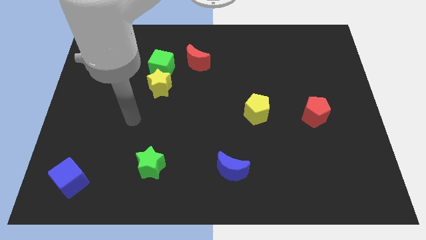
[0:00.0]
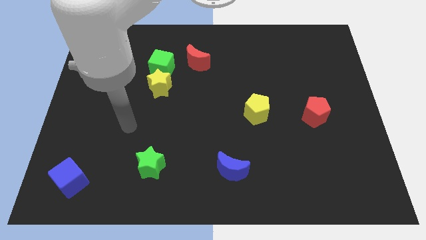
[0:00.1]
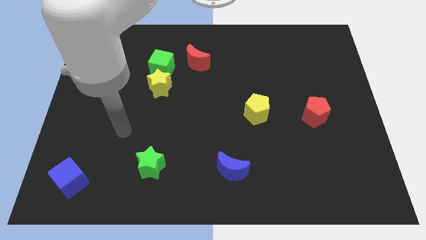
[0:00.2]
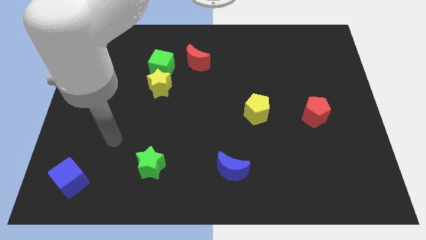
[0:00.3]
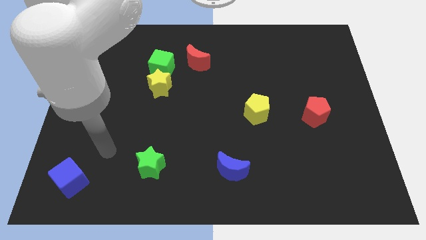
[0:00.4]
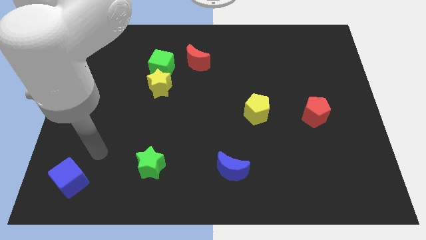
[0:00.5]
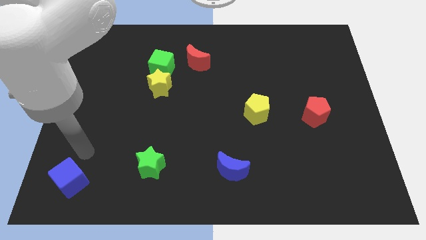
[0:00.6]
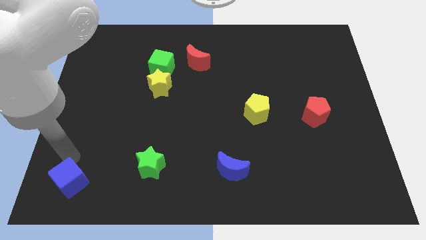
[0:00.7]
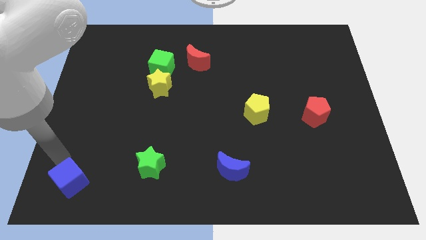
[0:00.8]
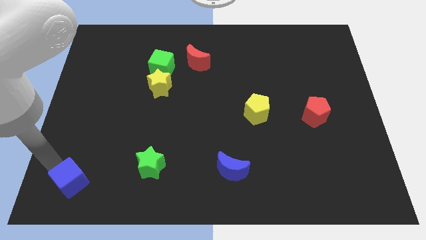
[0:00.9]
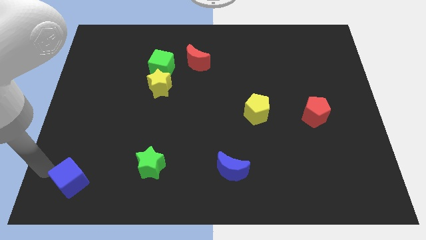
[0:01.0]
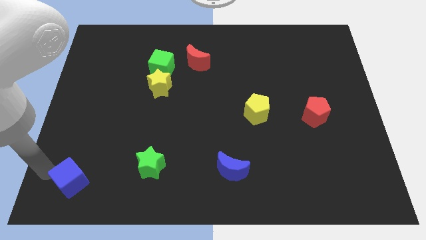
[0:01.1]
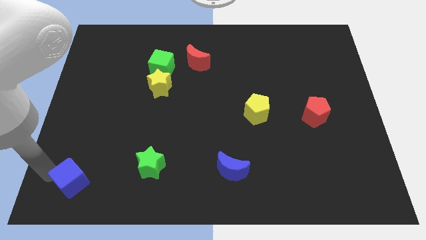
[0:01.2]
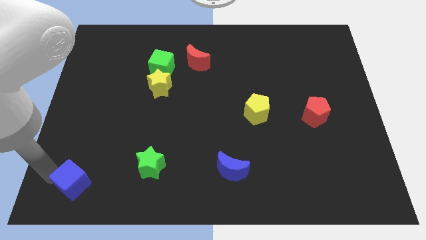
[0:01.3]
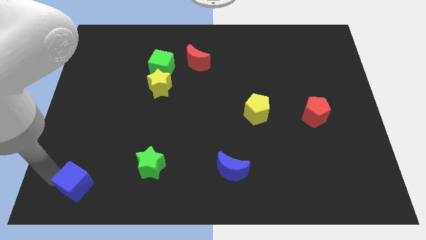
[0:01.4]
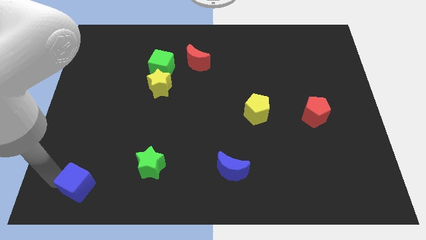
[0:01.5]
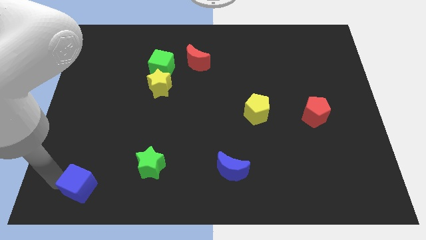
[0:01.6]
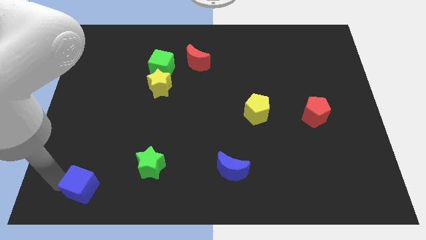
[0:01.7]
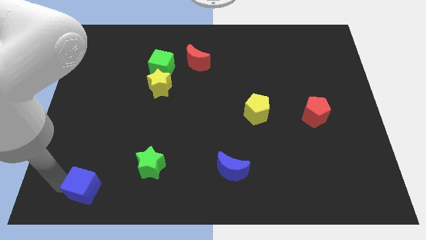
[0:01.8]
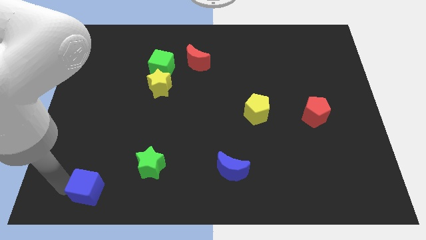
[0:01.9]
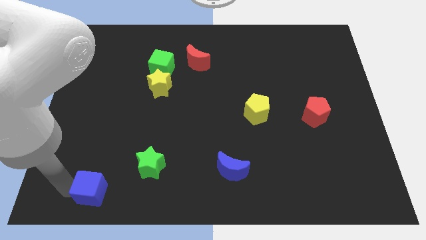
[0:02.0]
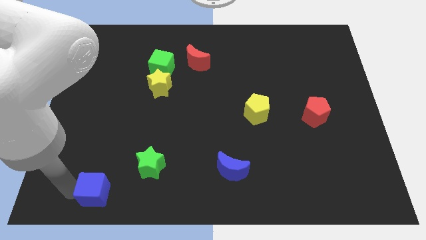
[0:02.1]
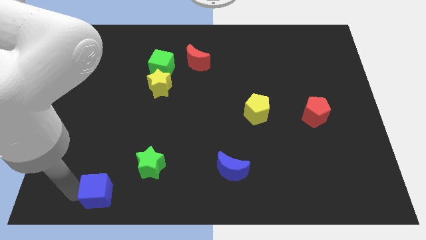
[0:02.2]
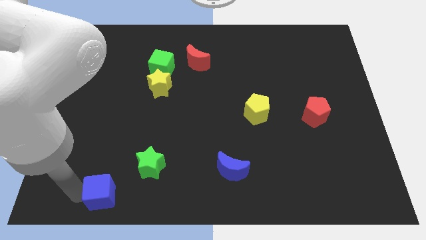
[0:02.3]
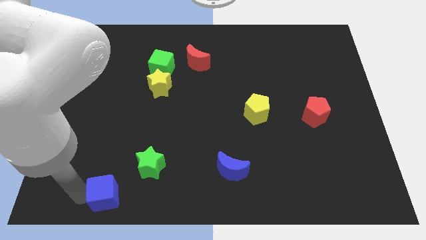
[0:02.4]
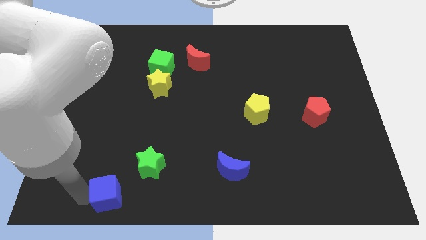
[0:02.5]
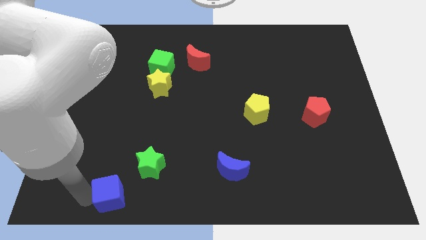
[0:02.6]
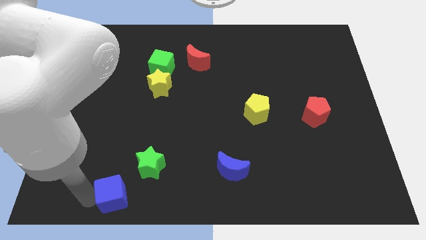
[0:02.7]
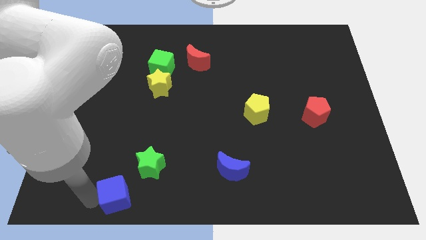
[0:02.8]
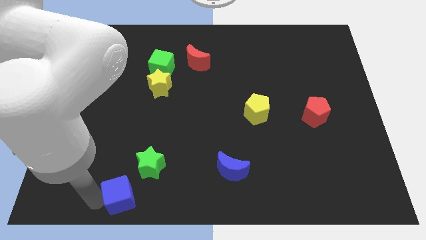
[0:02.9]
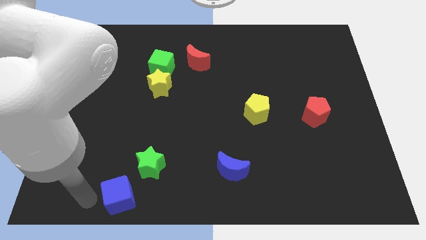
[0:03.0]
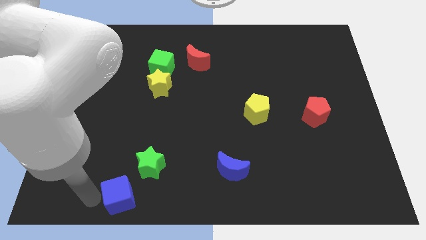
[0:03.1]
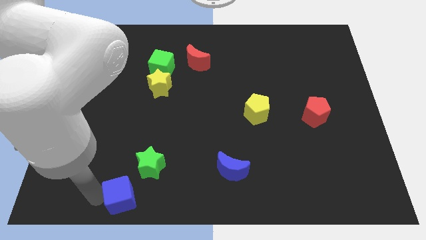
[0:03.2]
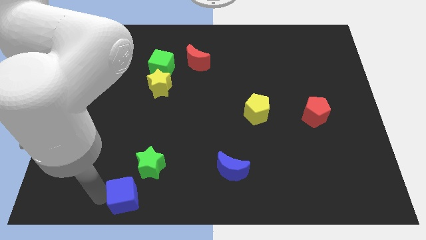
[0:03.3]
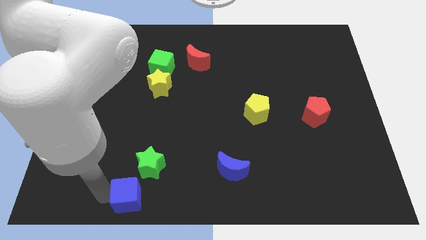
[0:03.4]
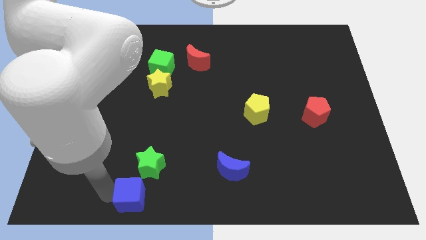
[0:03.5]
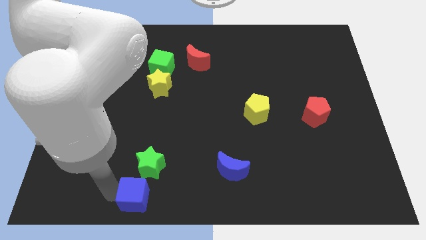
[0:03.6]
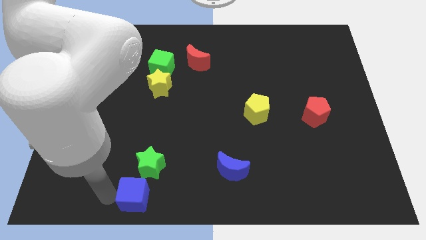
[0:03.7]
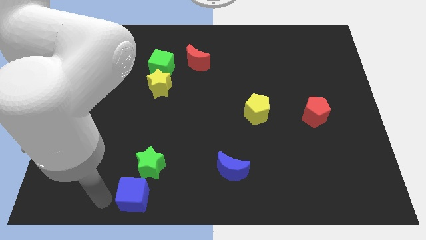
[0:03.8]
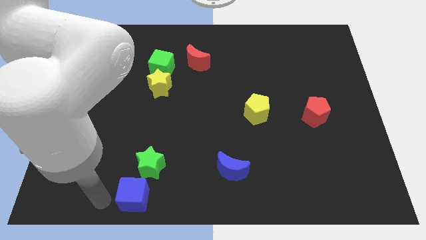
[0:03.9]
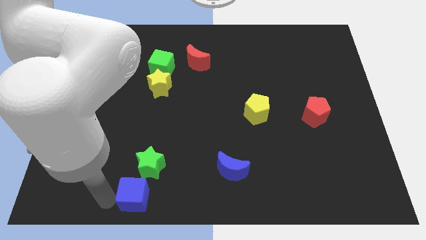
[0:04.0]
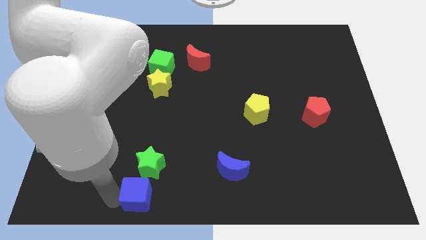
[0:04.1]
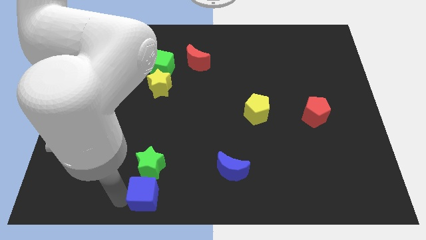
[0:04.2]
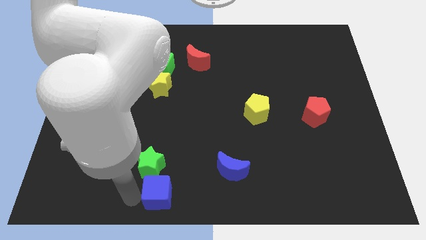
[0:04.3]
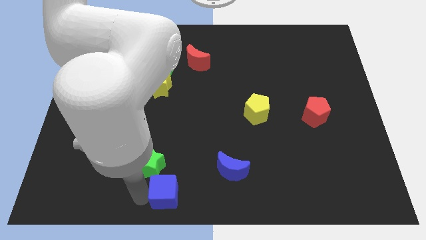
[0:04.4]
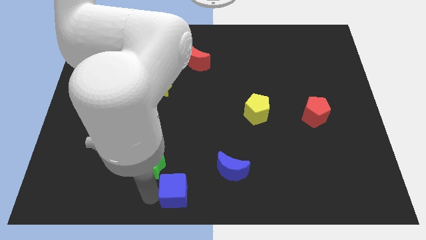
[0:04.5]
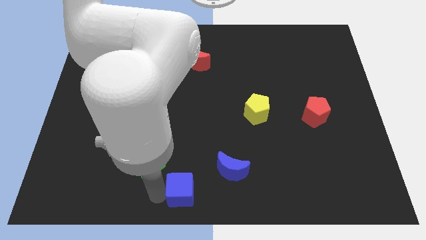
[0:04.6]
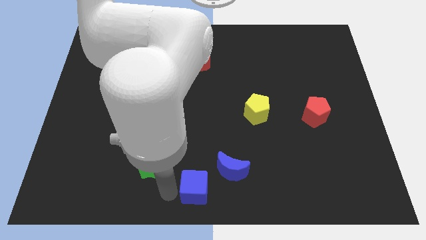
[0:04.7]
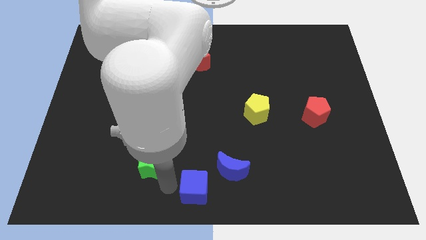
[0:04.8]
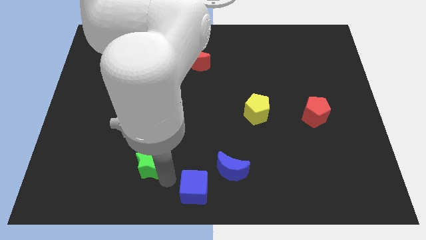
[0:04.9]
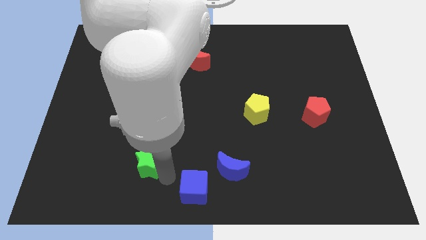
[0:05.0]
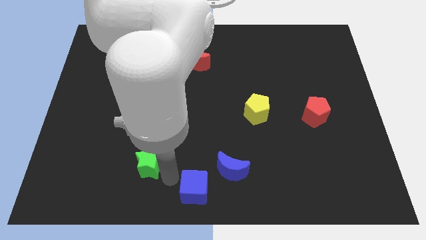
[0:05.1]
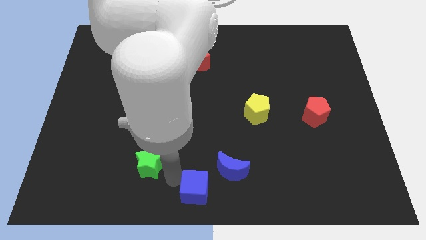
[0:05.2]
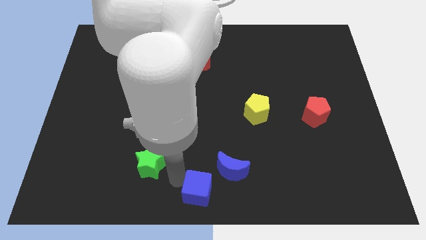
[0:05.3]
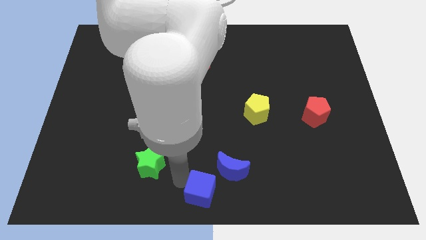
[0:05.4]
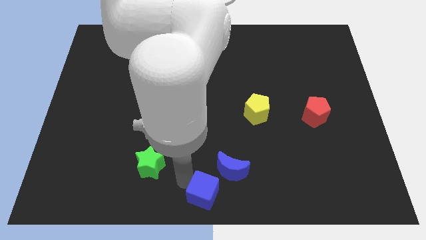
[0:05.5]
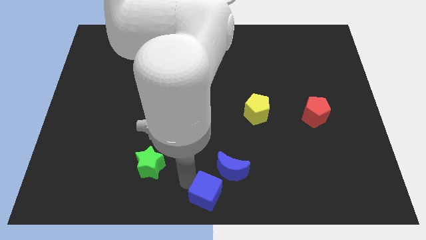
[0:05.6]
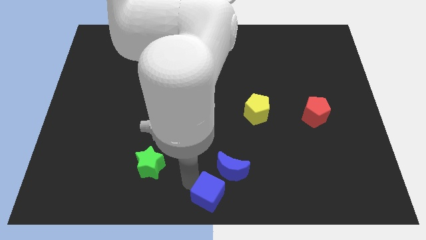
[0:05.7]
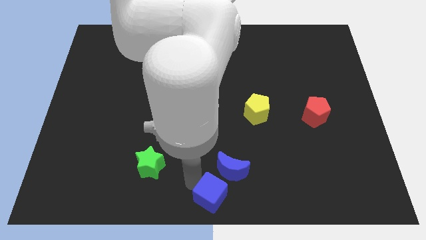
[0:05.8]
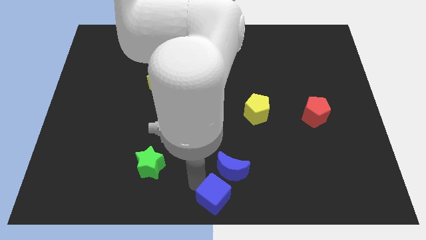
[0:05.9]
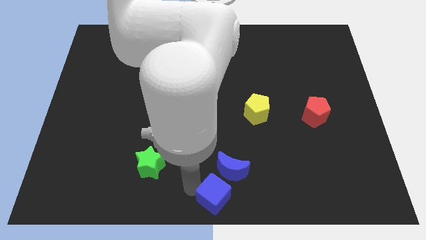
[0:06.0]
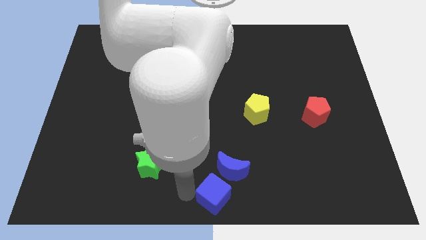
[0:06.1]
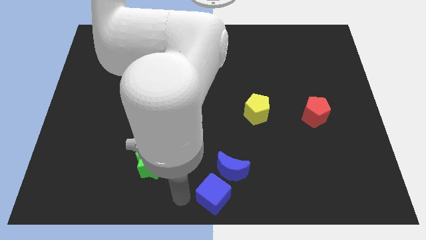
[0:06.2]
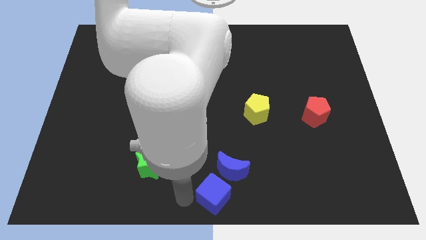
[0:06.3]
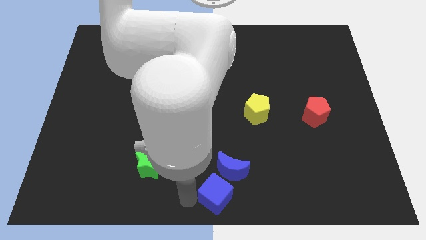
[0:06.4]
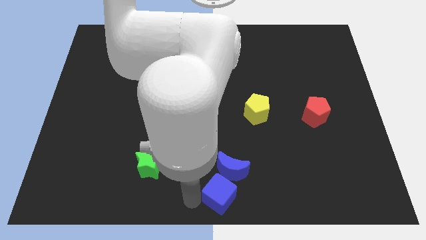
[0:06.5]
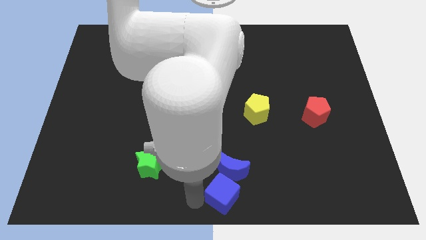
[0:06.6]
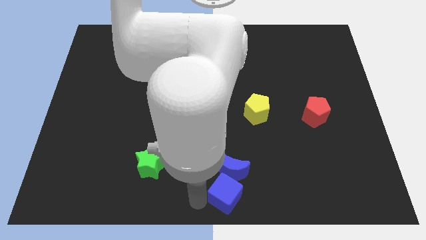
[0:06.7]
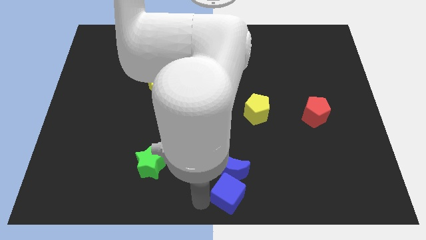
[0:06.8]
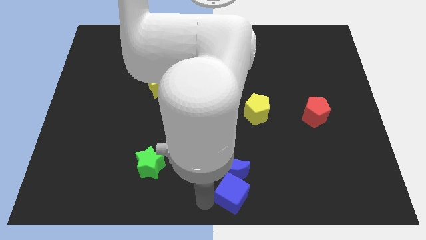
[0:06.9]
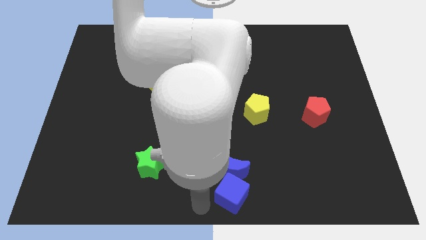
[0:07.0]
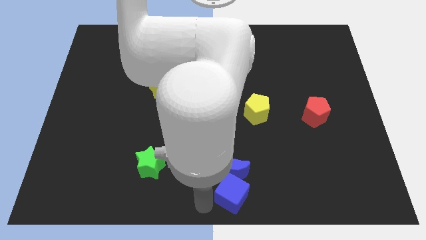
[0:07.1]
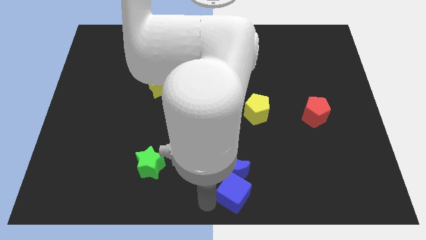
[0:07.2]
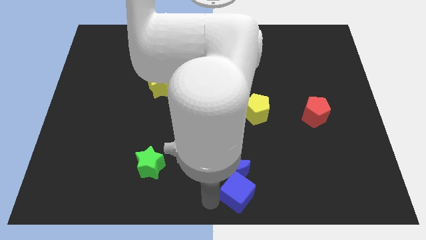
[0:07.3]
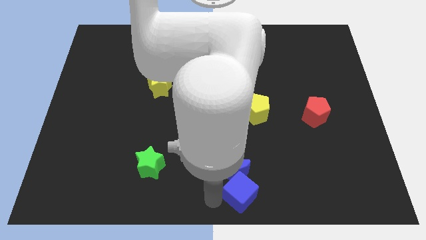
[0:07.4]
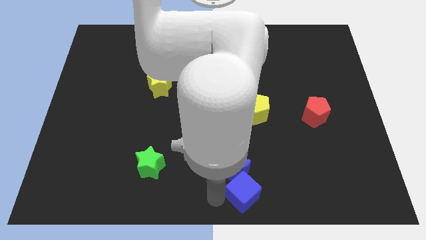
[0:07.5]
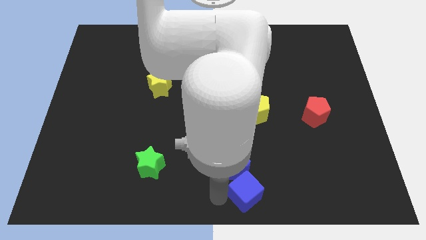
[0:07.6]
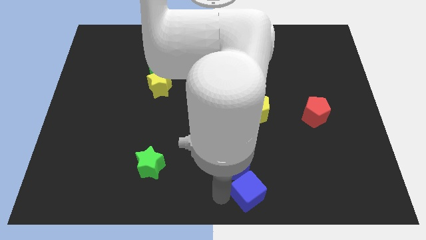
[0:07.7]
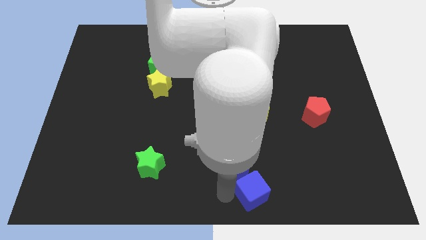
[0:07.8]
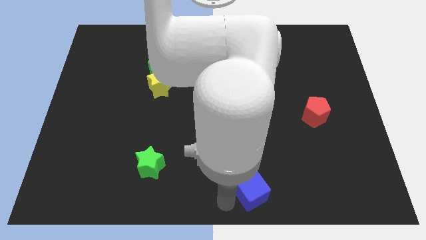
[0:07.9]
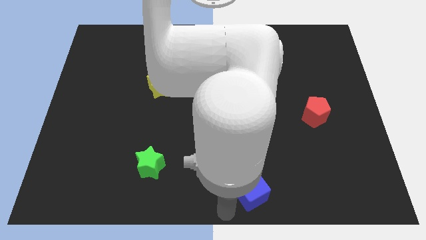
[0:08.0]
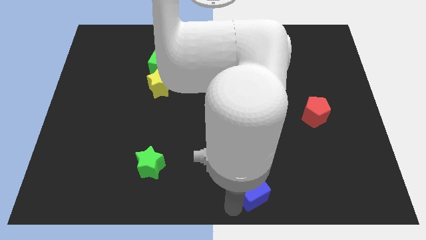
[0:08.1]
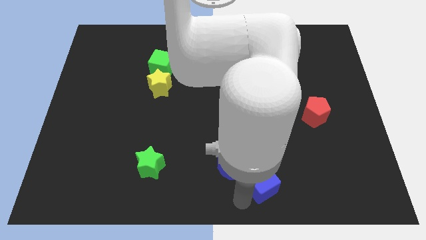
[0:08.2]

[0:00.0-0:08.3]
move the blue cube to the right of the blue moon

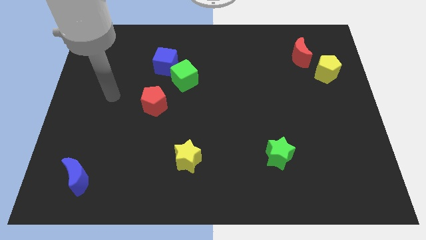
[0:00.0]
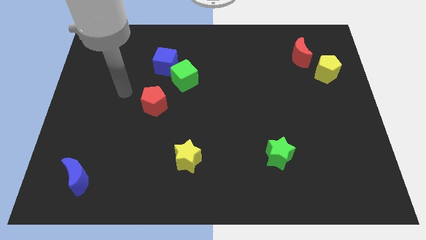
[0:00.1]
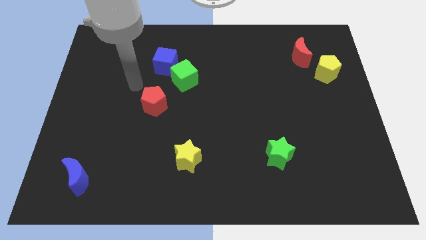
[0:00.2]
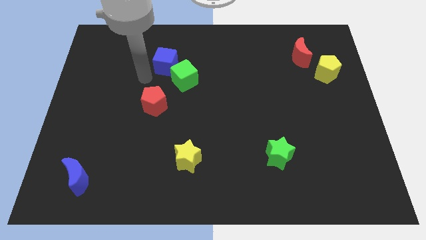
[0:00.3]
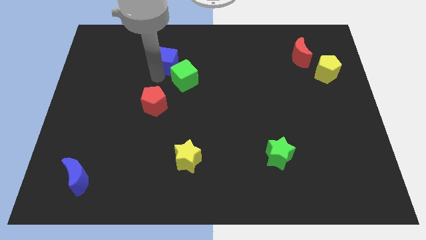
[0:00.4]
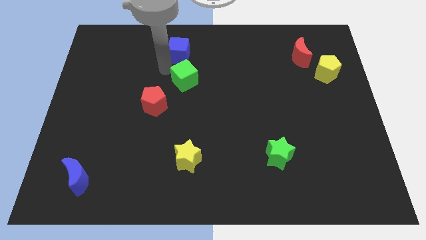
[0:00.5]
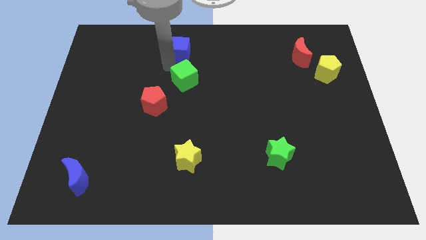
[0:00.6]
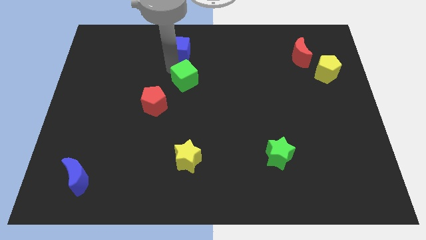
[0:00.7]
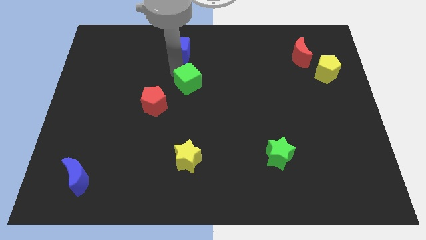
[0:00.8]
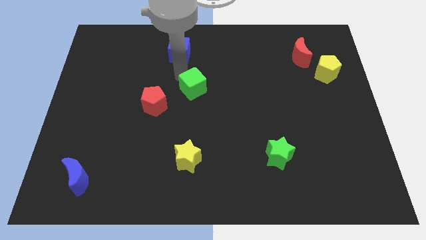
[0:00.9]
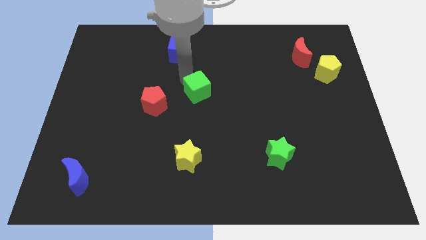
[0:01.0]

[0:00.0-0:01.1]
push the green cube right of the red pentagon
